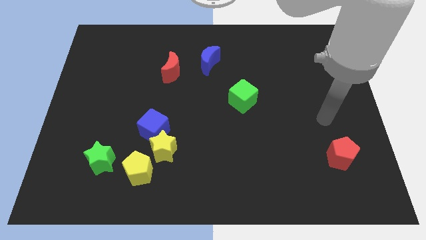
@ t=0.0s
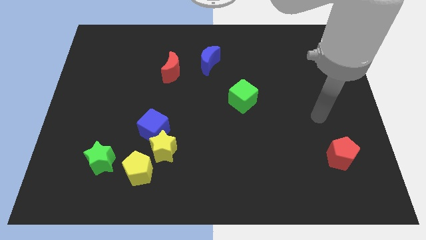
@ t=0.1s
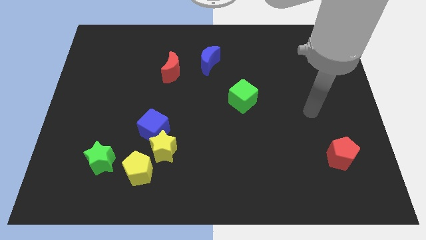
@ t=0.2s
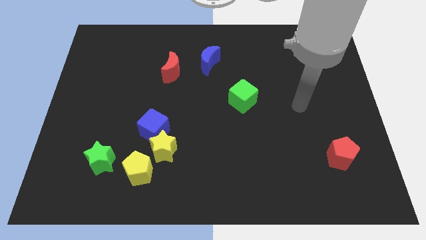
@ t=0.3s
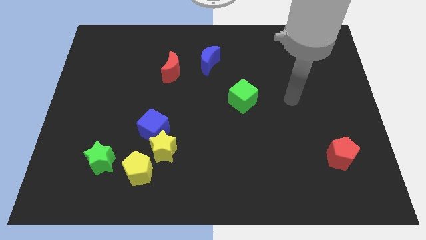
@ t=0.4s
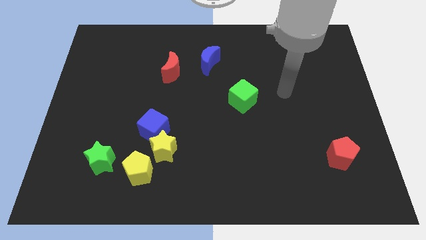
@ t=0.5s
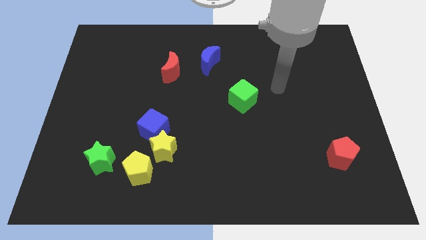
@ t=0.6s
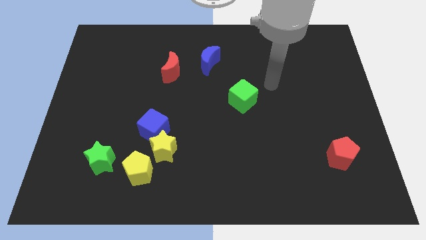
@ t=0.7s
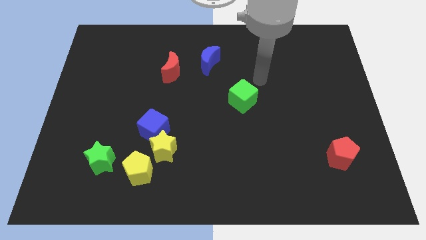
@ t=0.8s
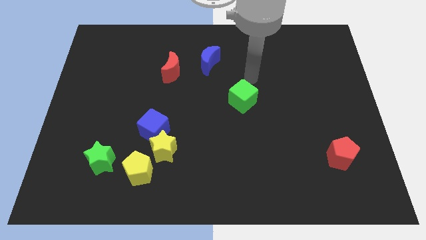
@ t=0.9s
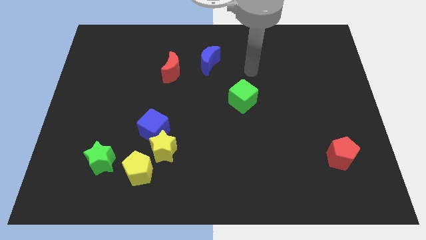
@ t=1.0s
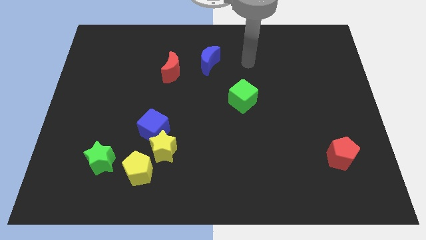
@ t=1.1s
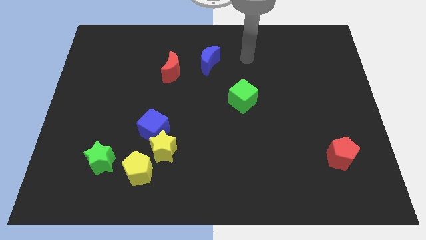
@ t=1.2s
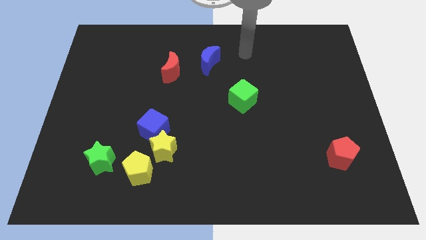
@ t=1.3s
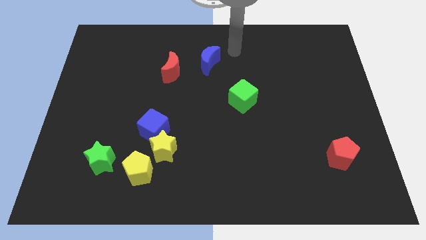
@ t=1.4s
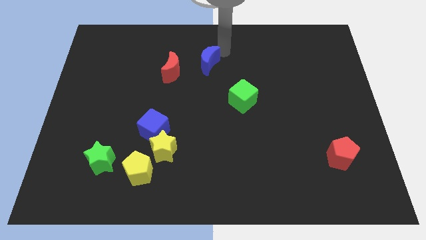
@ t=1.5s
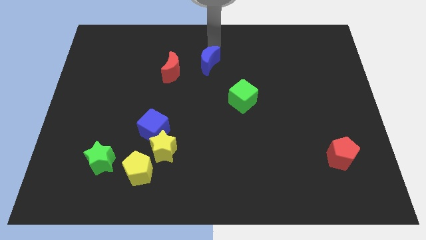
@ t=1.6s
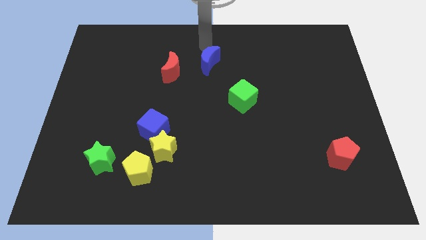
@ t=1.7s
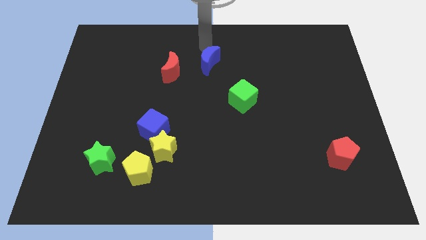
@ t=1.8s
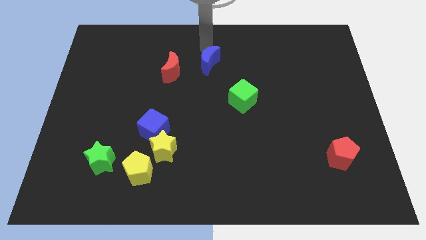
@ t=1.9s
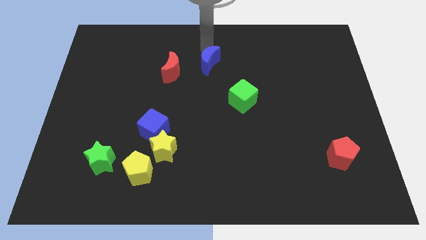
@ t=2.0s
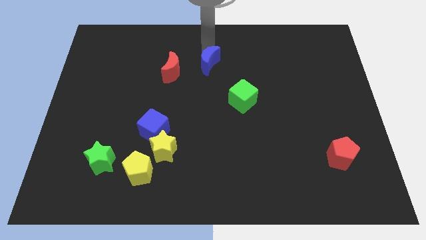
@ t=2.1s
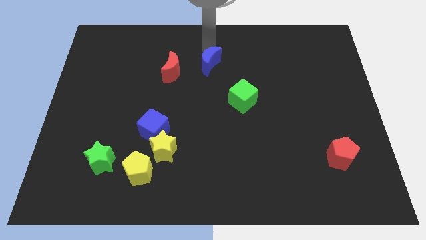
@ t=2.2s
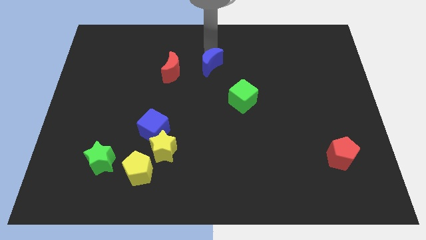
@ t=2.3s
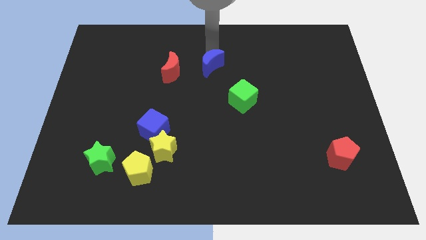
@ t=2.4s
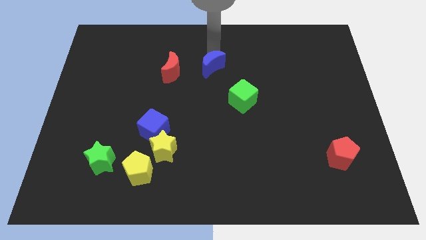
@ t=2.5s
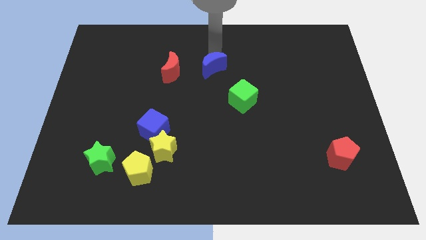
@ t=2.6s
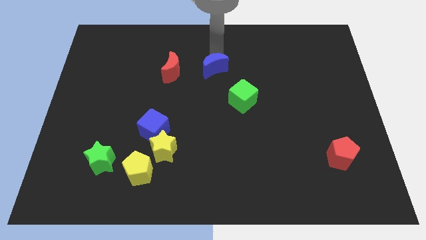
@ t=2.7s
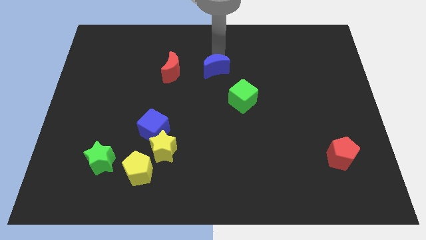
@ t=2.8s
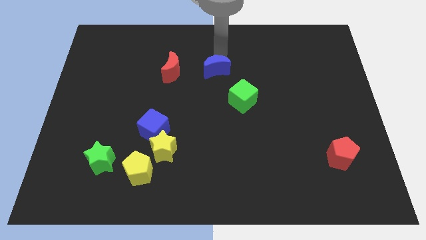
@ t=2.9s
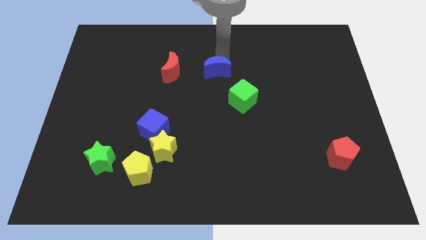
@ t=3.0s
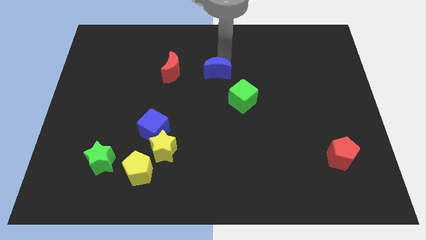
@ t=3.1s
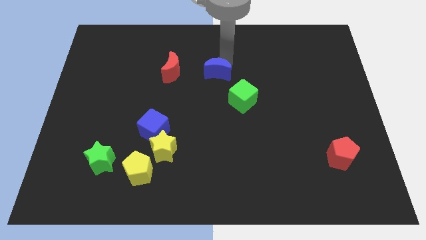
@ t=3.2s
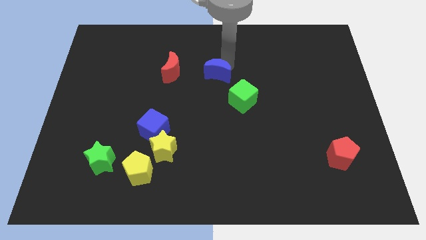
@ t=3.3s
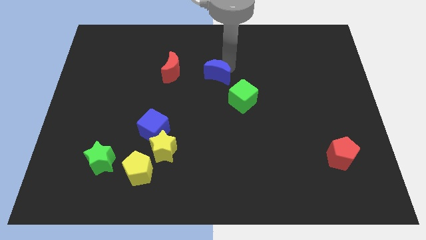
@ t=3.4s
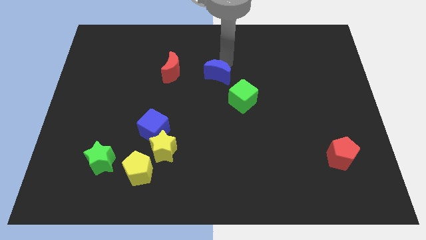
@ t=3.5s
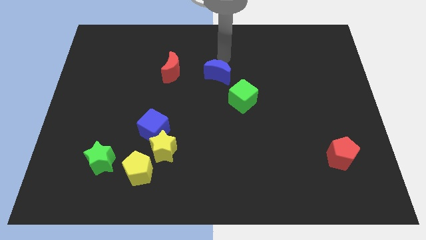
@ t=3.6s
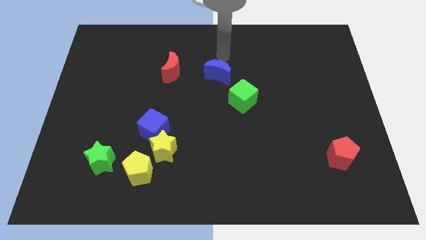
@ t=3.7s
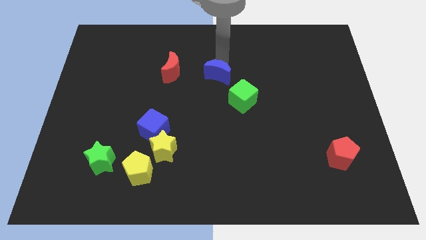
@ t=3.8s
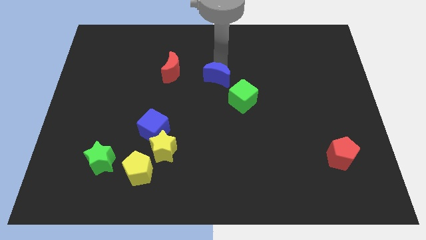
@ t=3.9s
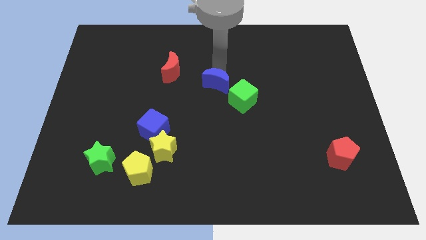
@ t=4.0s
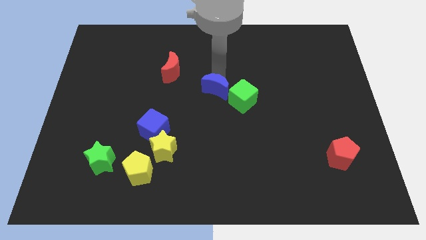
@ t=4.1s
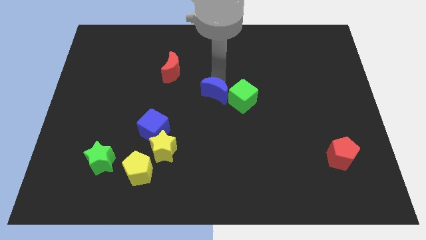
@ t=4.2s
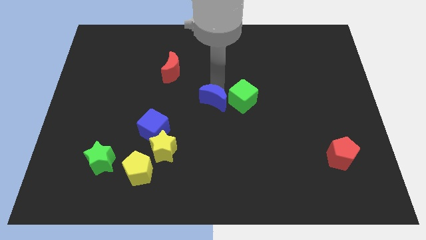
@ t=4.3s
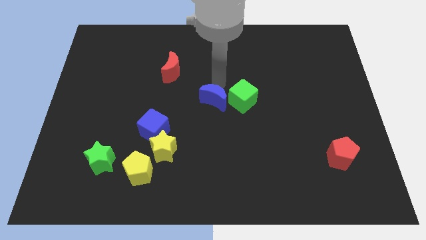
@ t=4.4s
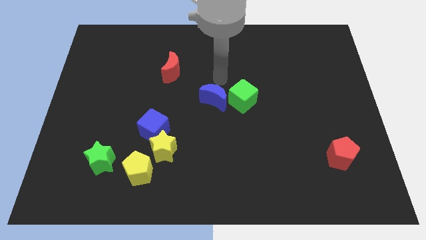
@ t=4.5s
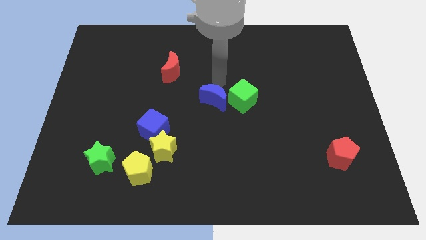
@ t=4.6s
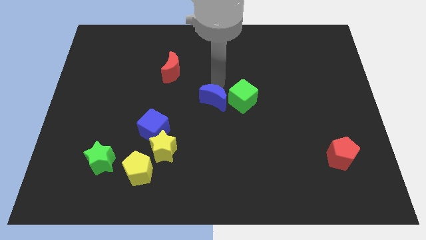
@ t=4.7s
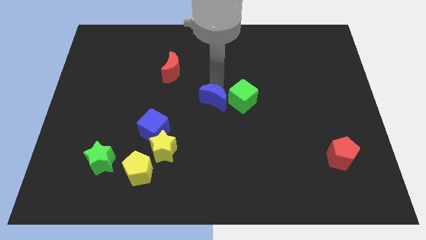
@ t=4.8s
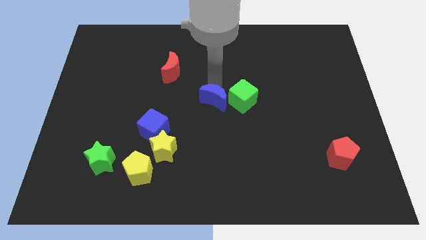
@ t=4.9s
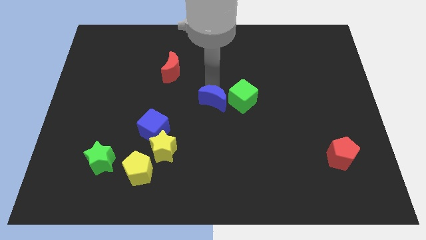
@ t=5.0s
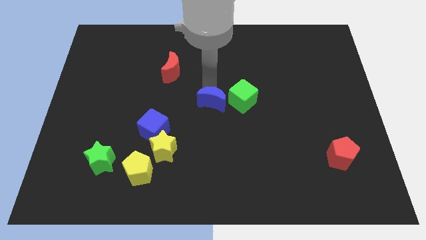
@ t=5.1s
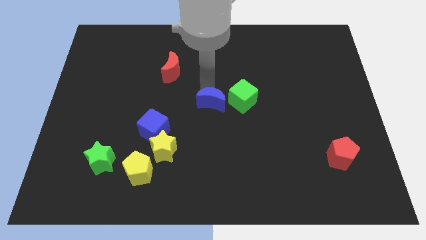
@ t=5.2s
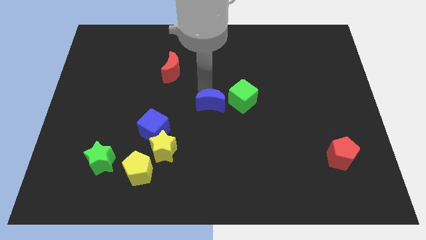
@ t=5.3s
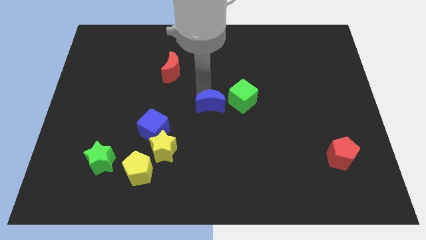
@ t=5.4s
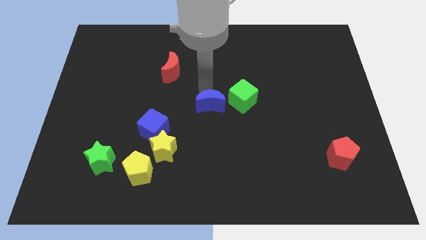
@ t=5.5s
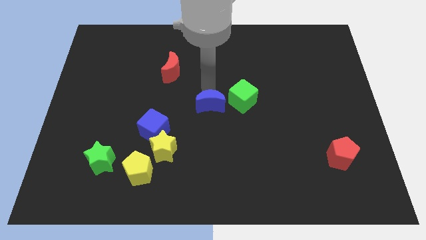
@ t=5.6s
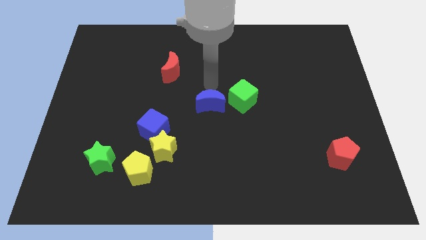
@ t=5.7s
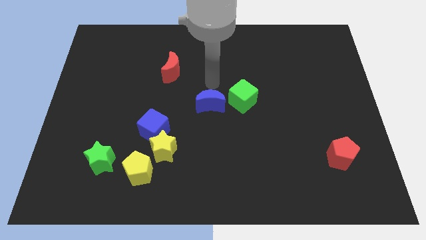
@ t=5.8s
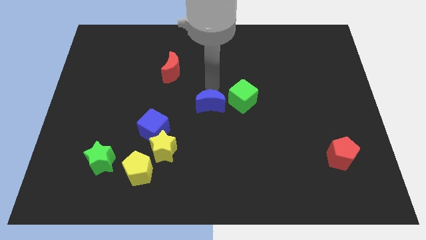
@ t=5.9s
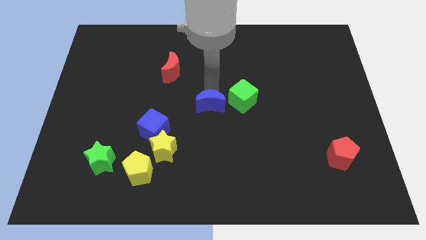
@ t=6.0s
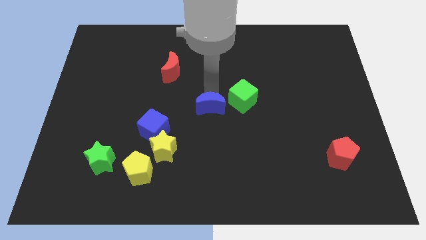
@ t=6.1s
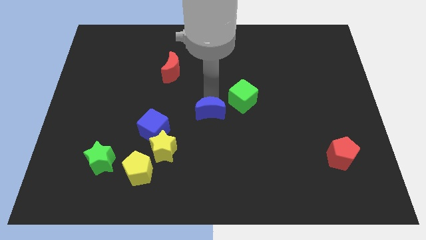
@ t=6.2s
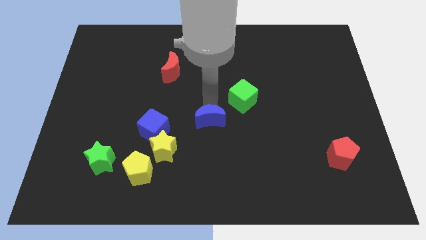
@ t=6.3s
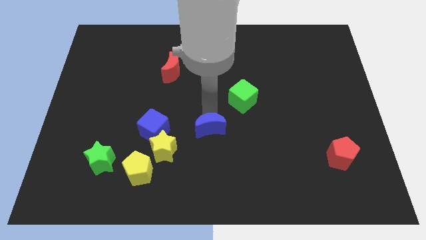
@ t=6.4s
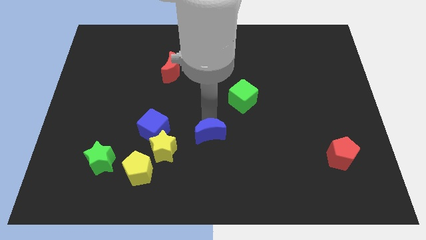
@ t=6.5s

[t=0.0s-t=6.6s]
push the blue moon to the right of the yellow star
